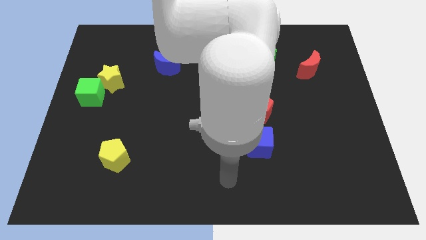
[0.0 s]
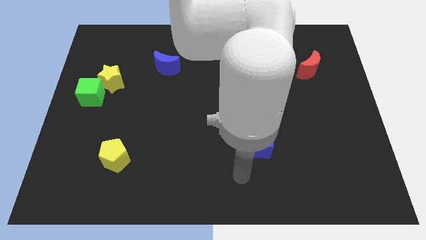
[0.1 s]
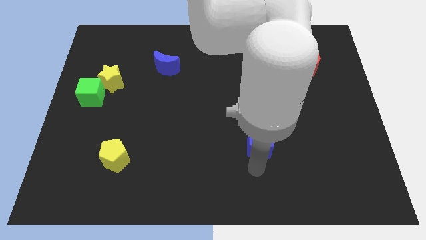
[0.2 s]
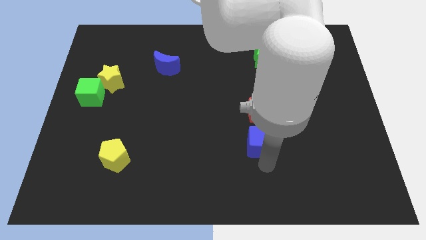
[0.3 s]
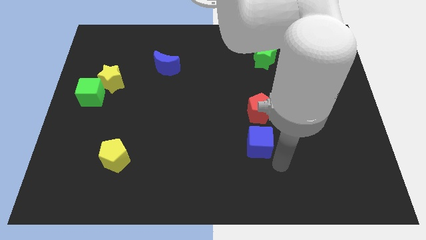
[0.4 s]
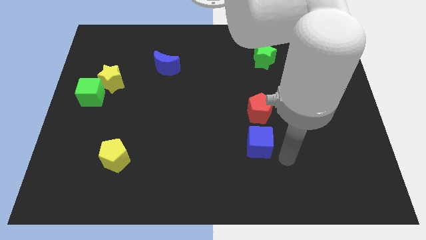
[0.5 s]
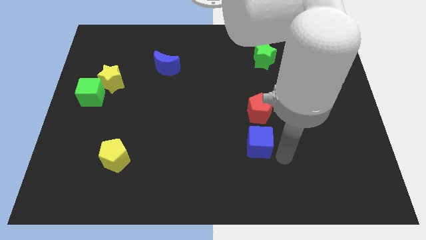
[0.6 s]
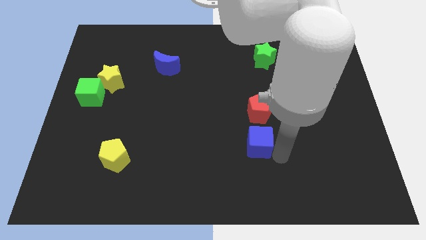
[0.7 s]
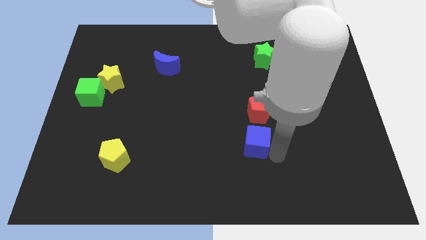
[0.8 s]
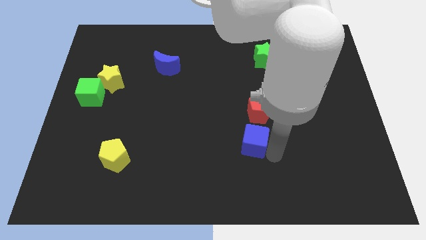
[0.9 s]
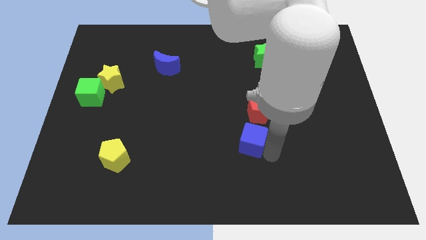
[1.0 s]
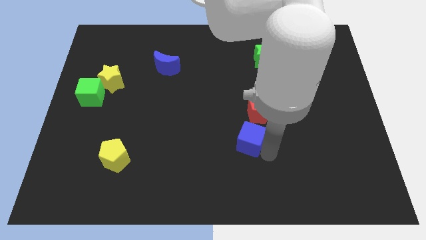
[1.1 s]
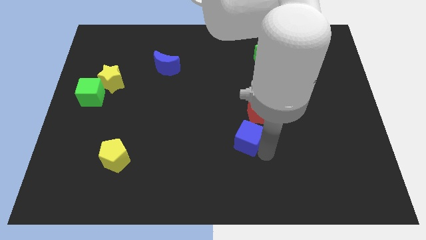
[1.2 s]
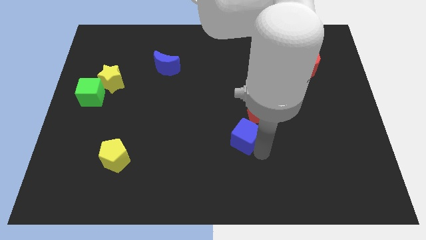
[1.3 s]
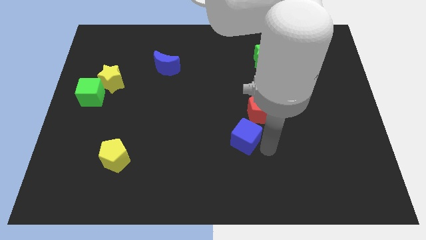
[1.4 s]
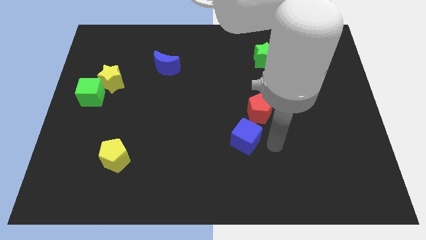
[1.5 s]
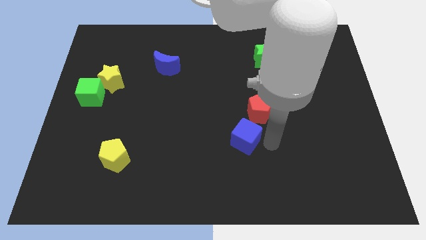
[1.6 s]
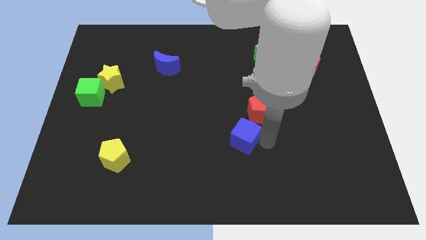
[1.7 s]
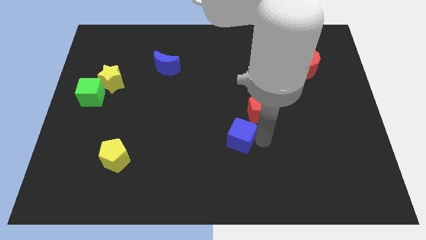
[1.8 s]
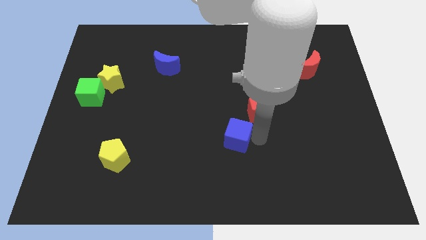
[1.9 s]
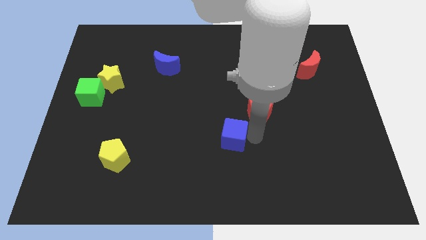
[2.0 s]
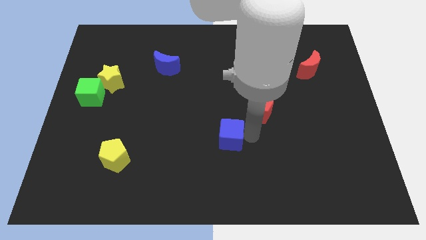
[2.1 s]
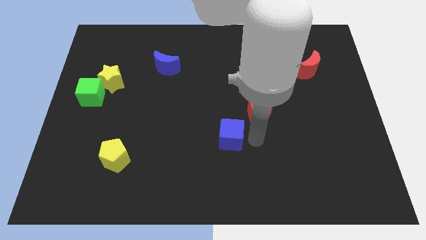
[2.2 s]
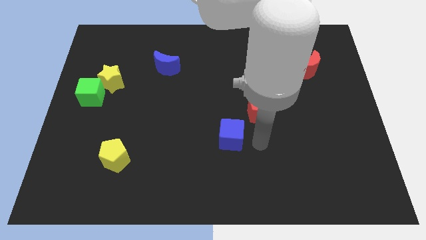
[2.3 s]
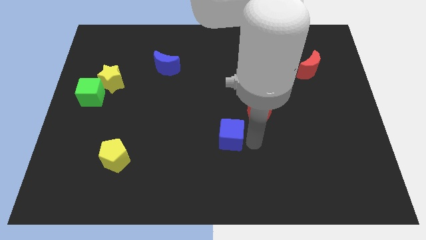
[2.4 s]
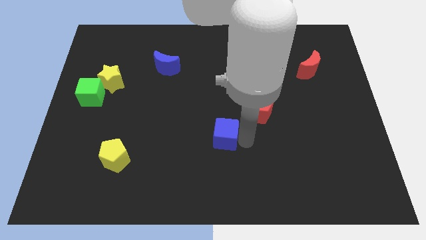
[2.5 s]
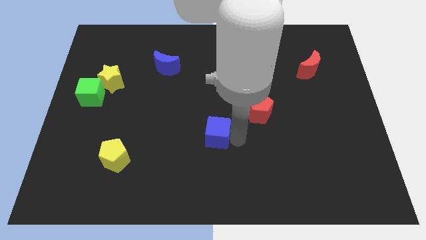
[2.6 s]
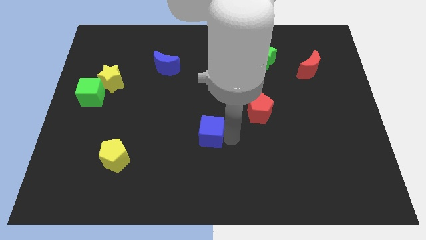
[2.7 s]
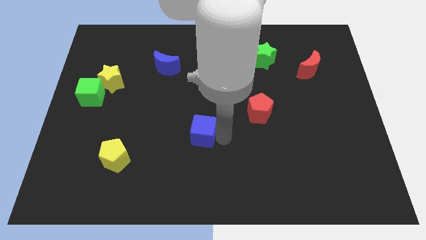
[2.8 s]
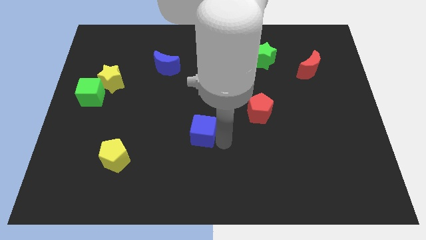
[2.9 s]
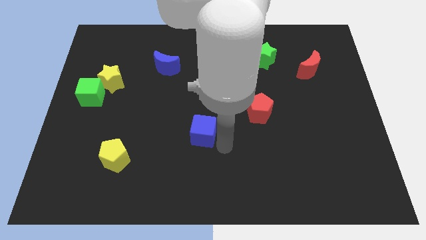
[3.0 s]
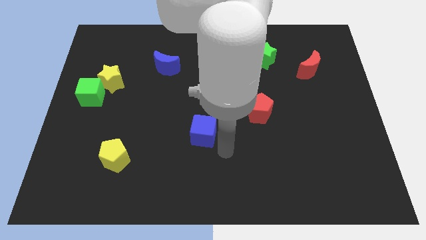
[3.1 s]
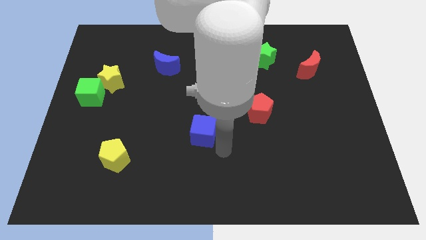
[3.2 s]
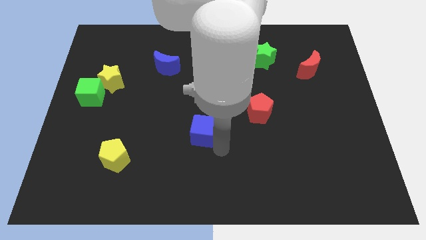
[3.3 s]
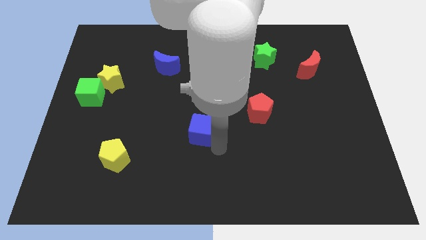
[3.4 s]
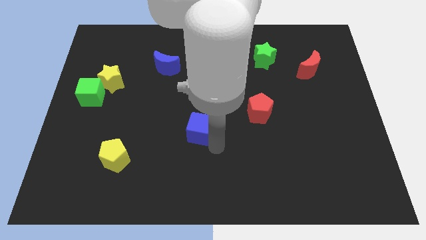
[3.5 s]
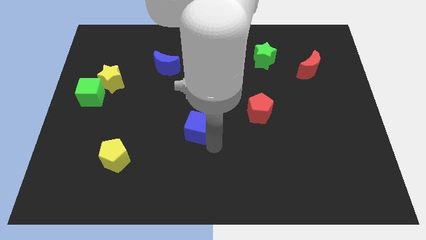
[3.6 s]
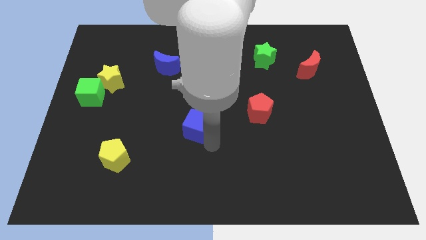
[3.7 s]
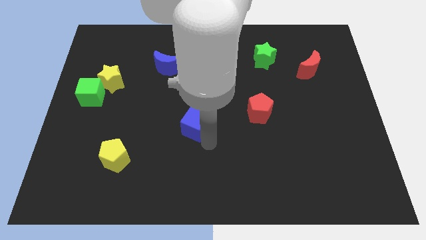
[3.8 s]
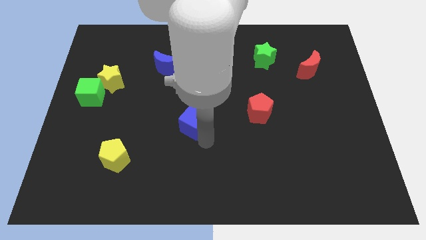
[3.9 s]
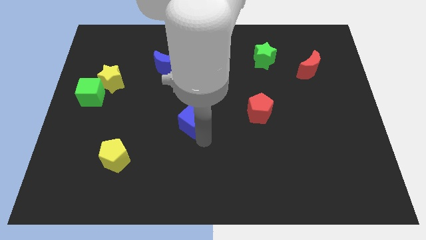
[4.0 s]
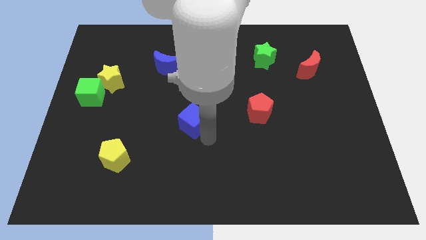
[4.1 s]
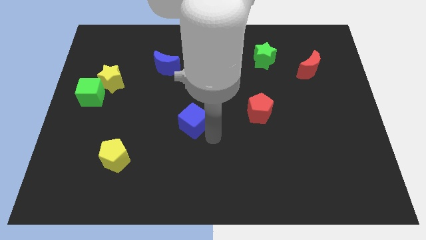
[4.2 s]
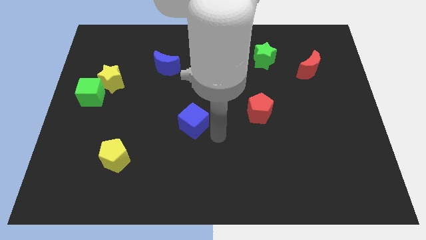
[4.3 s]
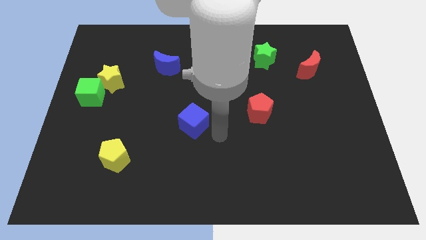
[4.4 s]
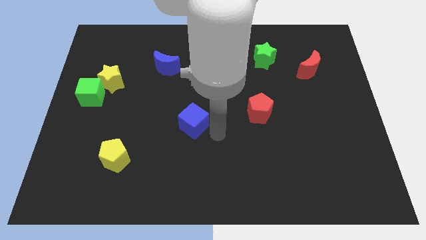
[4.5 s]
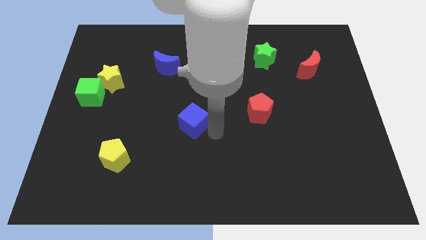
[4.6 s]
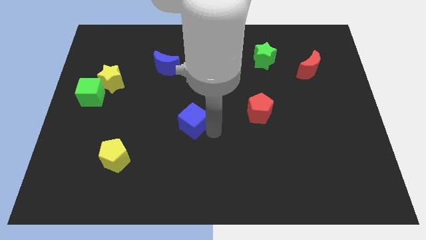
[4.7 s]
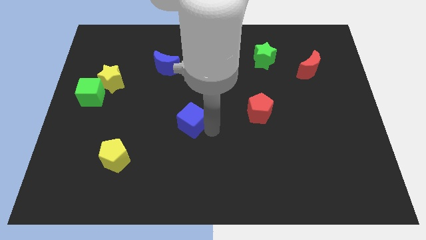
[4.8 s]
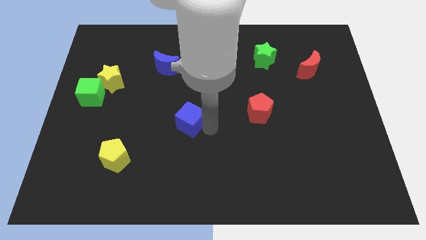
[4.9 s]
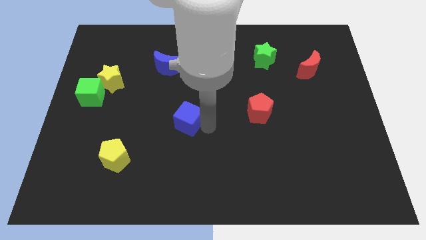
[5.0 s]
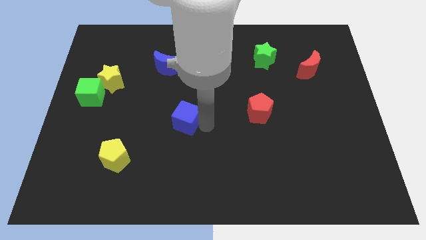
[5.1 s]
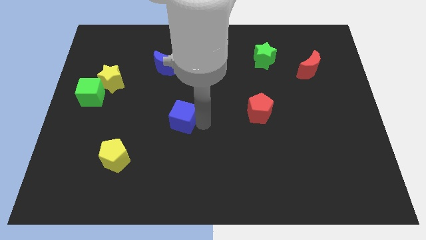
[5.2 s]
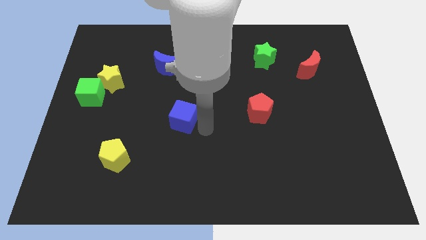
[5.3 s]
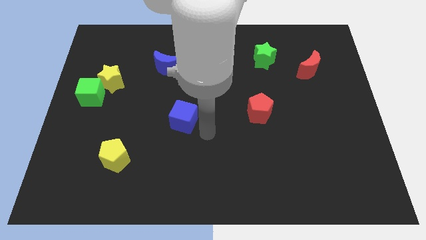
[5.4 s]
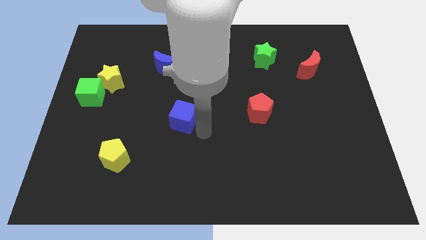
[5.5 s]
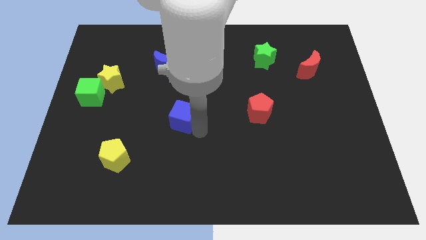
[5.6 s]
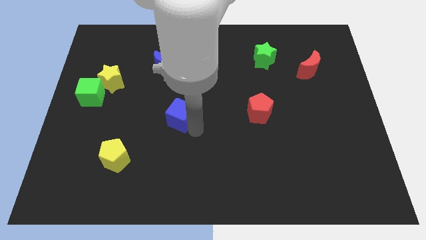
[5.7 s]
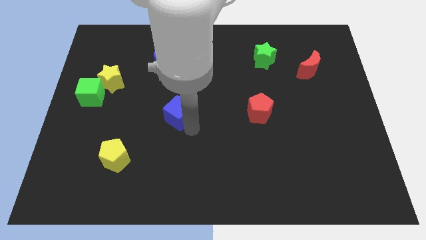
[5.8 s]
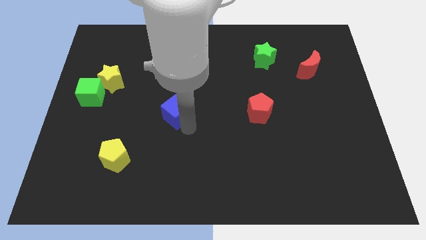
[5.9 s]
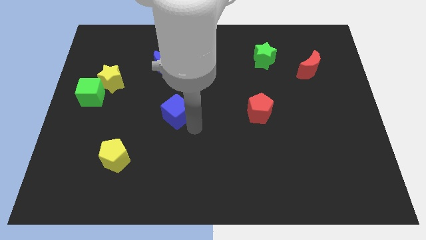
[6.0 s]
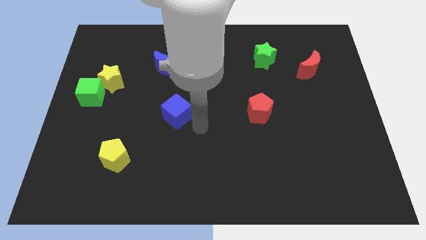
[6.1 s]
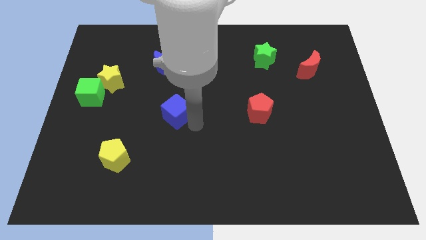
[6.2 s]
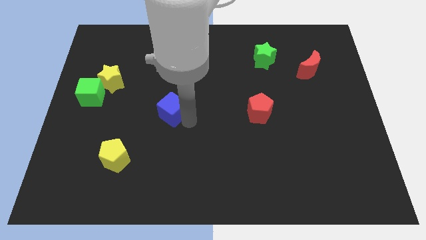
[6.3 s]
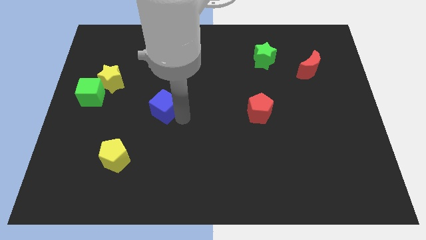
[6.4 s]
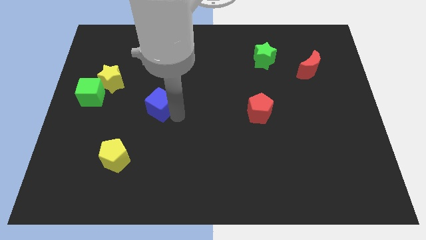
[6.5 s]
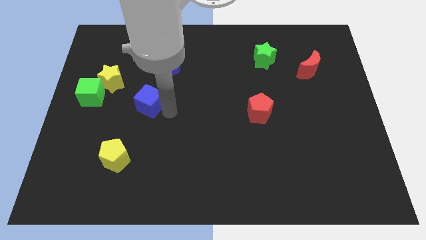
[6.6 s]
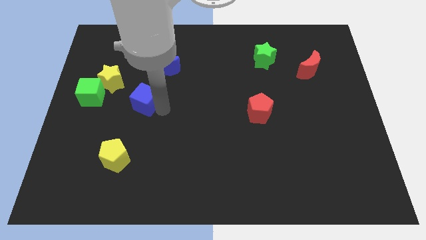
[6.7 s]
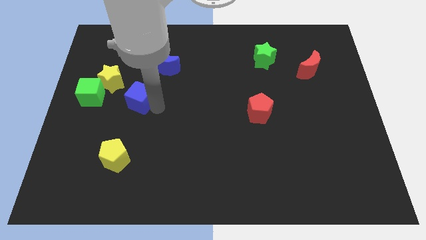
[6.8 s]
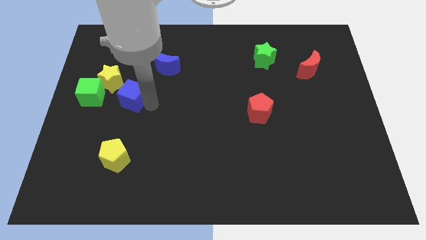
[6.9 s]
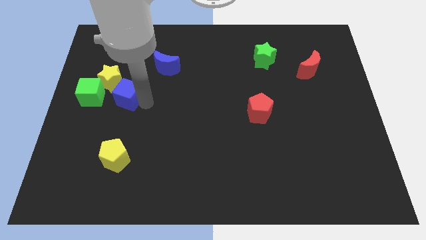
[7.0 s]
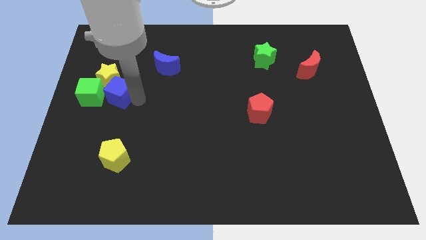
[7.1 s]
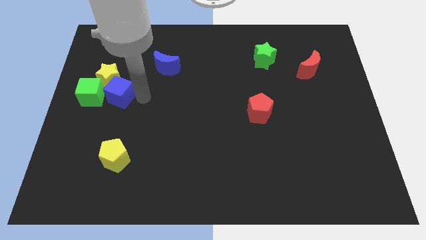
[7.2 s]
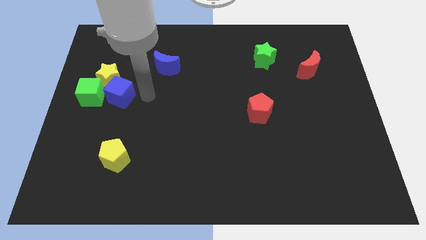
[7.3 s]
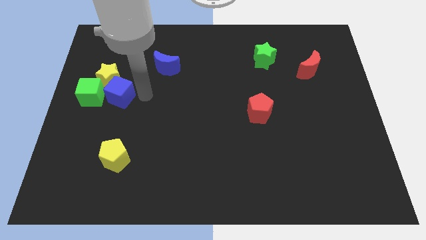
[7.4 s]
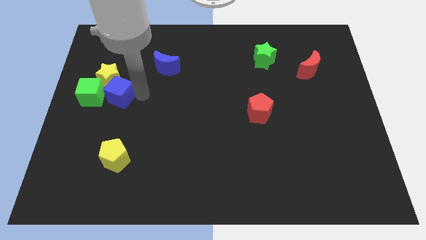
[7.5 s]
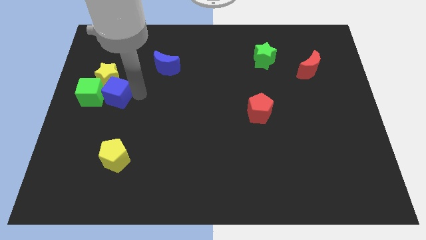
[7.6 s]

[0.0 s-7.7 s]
push the blue cube next to the green cube

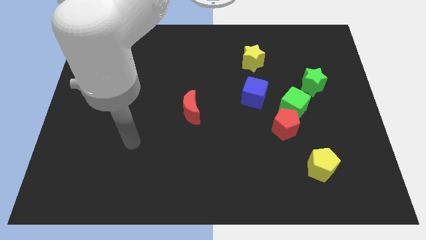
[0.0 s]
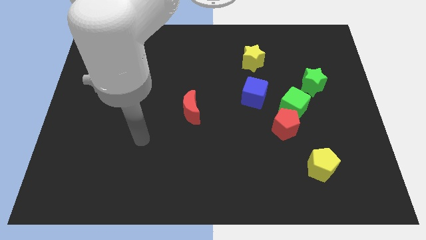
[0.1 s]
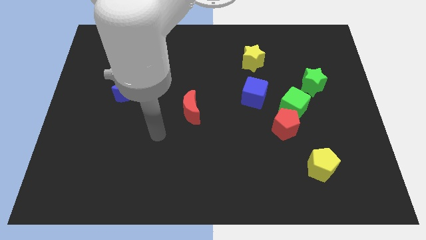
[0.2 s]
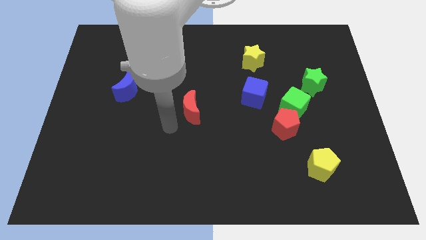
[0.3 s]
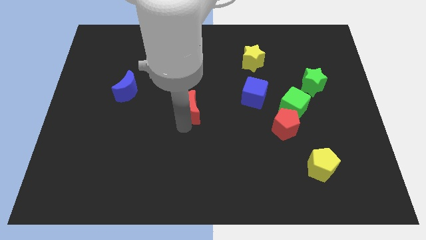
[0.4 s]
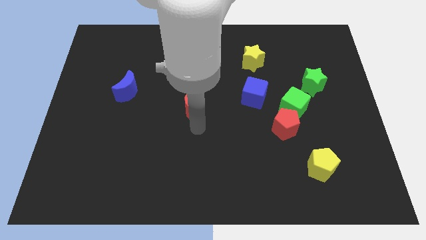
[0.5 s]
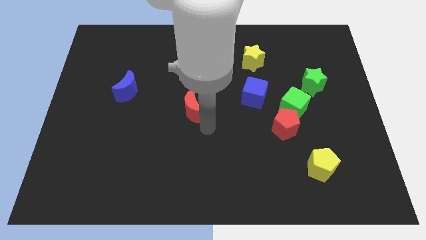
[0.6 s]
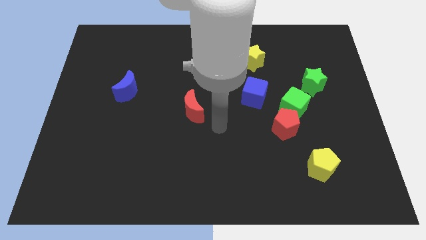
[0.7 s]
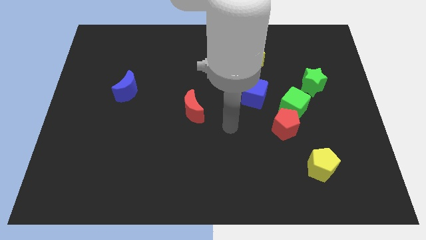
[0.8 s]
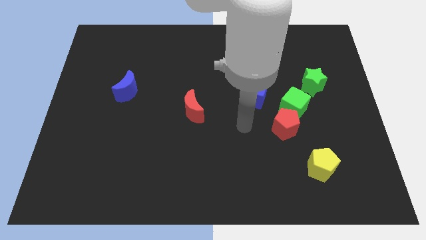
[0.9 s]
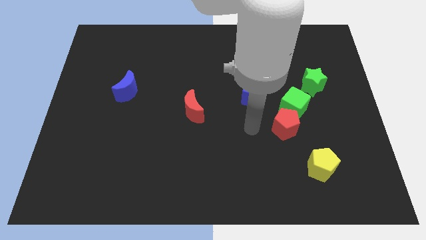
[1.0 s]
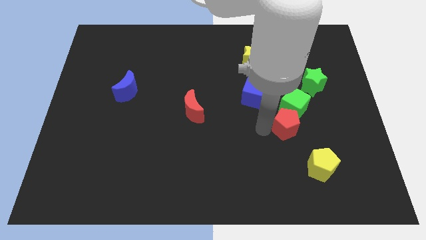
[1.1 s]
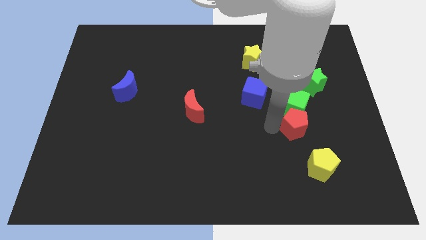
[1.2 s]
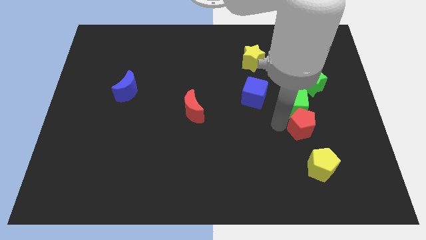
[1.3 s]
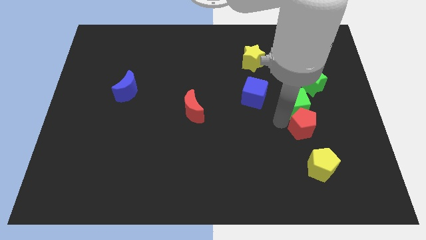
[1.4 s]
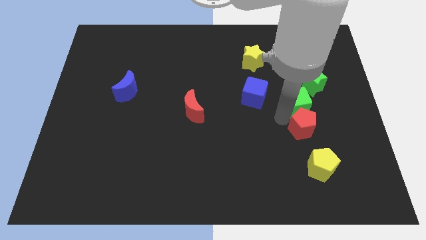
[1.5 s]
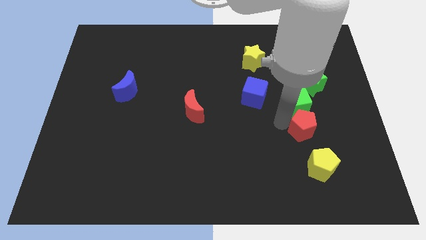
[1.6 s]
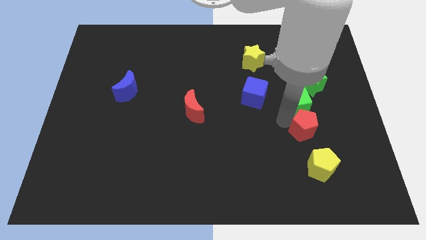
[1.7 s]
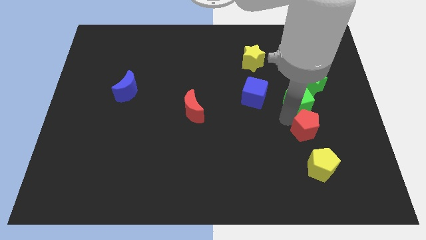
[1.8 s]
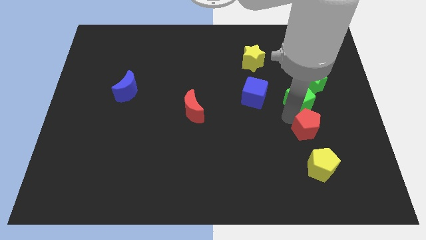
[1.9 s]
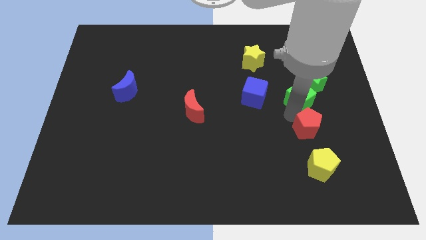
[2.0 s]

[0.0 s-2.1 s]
put the green cube close to the green star
